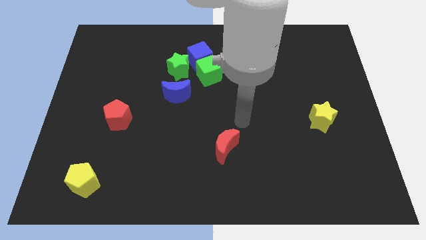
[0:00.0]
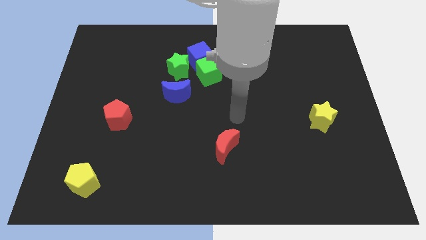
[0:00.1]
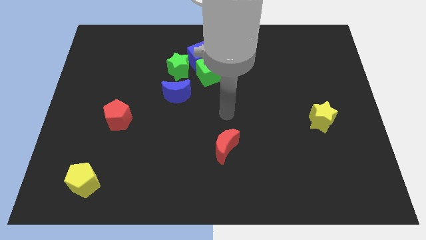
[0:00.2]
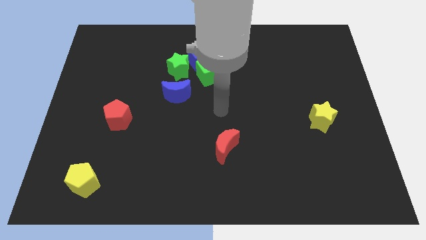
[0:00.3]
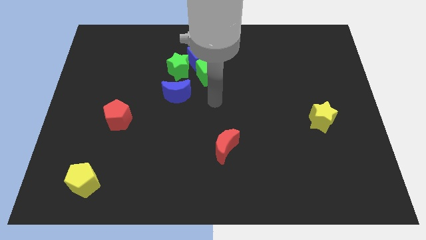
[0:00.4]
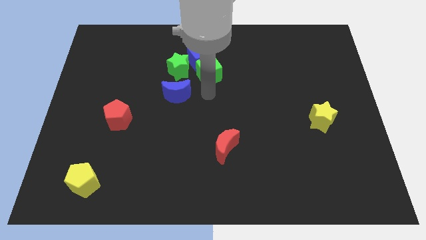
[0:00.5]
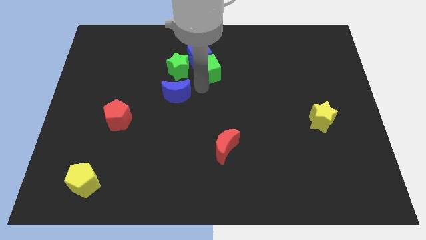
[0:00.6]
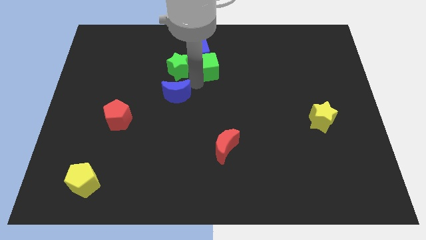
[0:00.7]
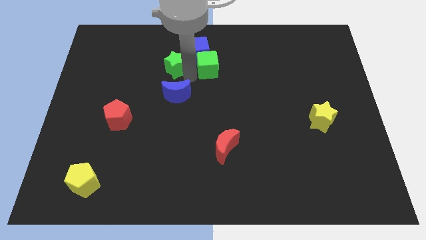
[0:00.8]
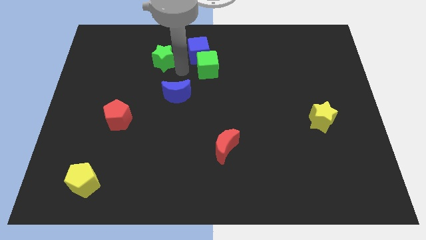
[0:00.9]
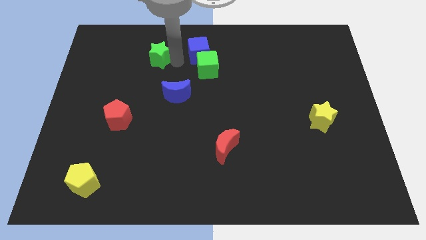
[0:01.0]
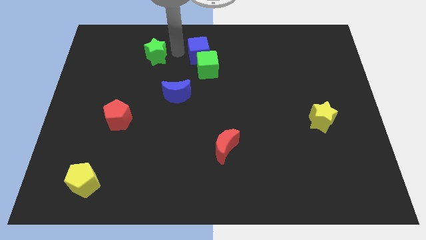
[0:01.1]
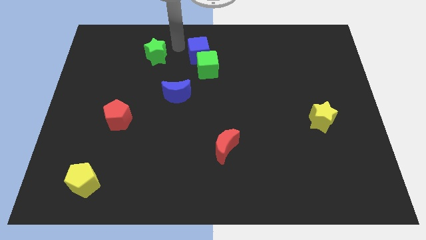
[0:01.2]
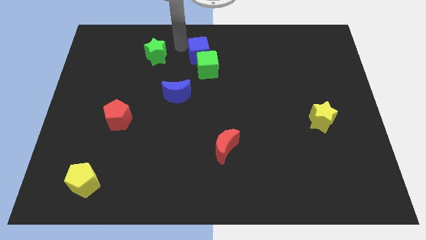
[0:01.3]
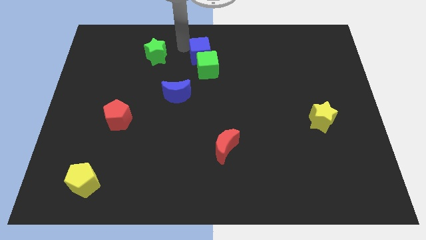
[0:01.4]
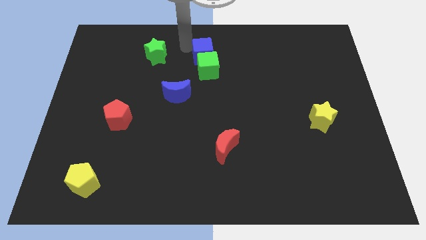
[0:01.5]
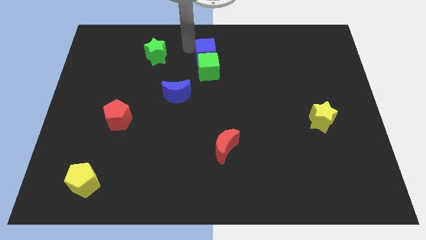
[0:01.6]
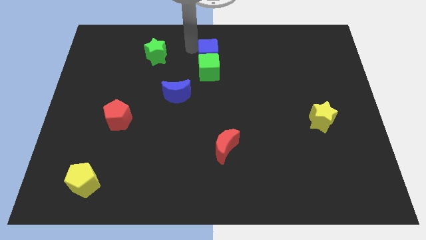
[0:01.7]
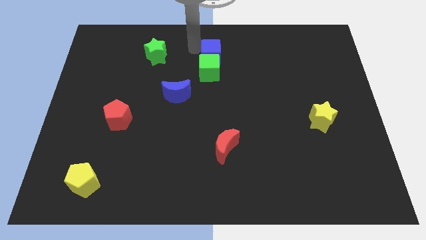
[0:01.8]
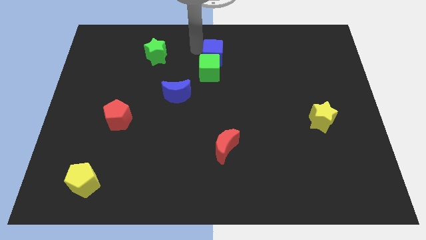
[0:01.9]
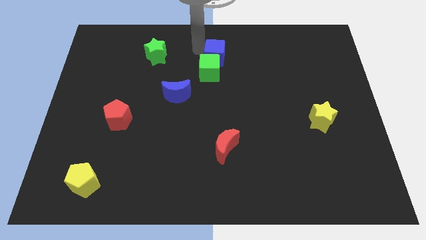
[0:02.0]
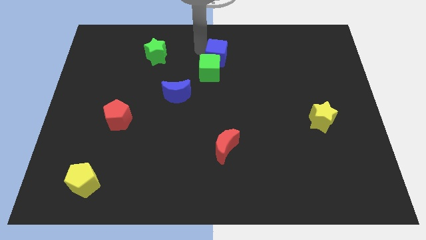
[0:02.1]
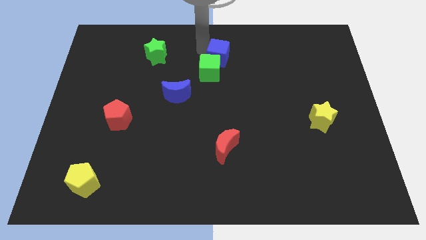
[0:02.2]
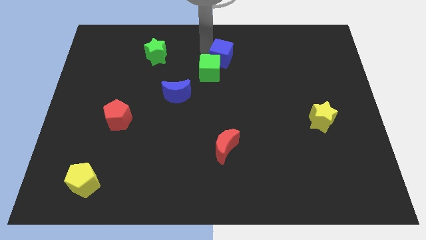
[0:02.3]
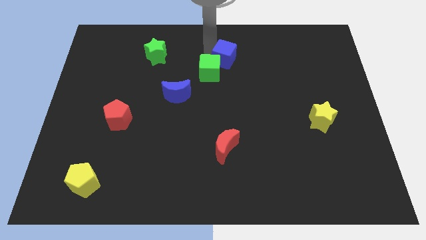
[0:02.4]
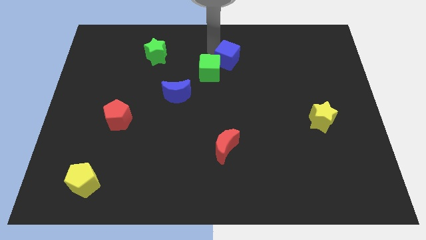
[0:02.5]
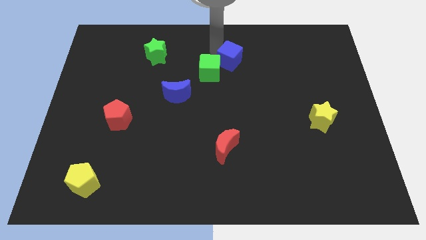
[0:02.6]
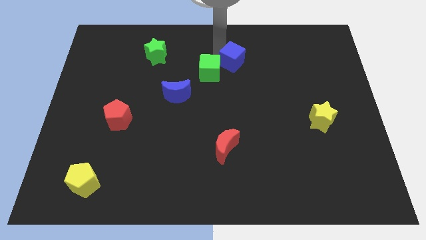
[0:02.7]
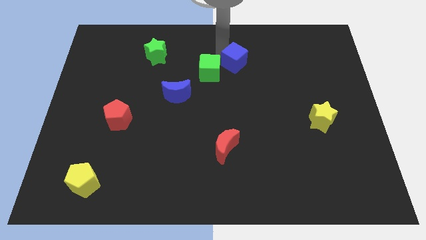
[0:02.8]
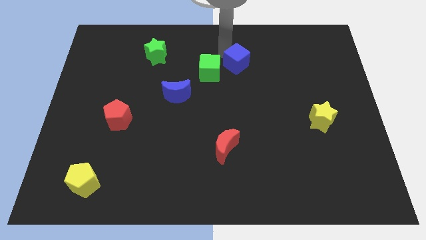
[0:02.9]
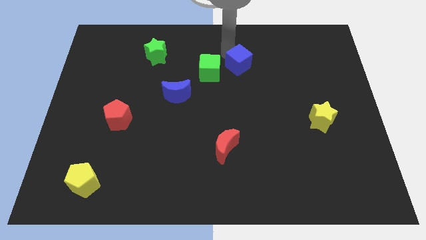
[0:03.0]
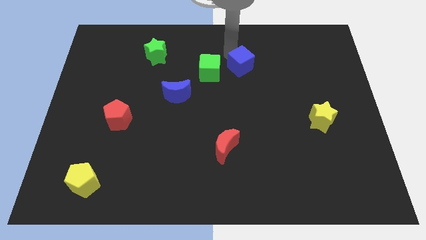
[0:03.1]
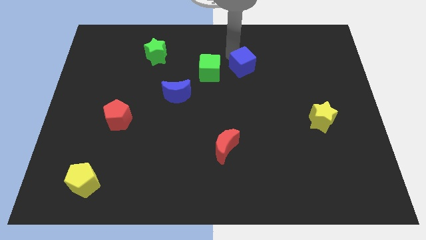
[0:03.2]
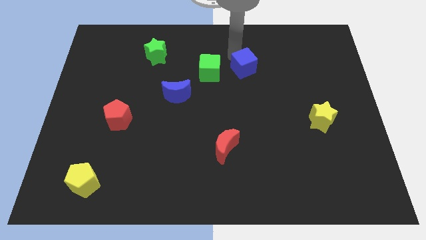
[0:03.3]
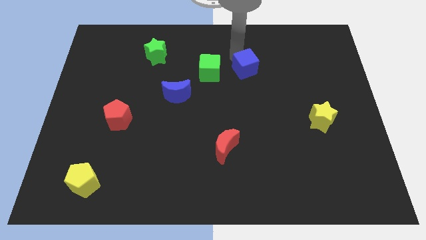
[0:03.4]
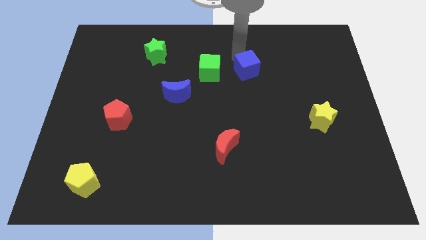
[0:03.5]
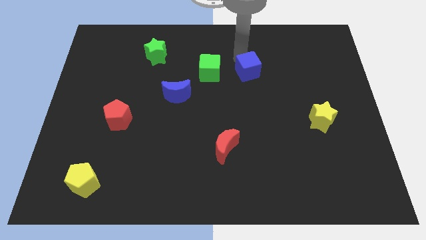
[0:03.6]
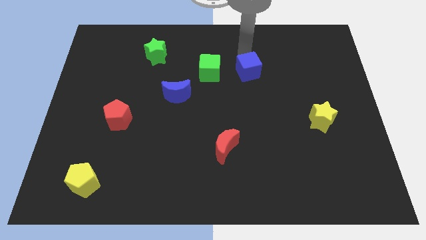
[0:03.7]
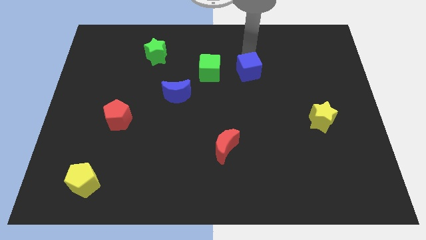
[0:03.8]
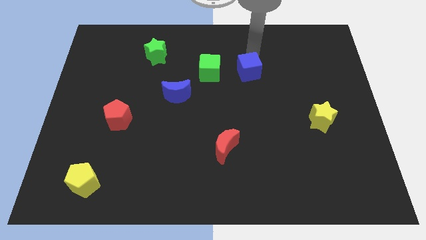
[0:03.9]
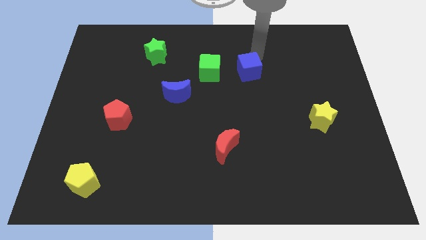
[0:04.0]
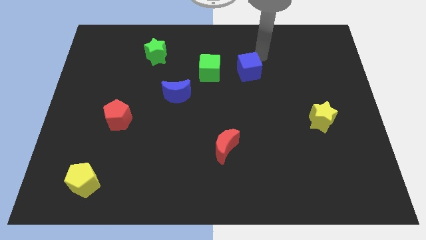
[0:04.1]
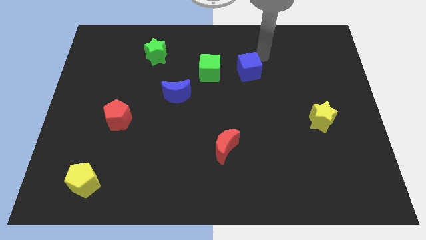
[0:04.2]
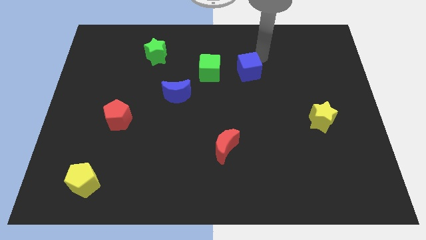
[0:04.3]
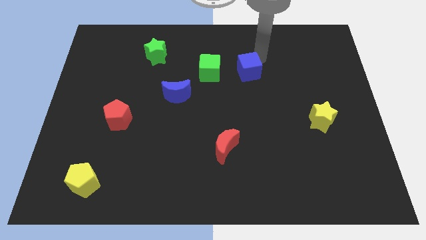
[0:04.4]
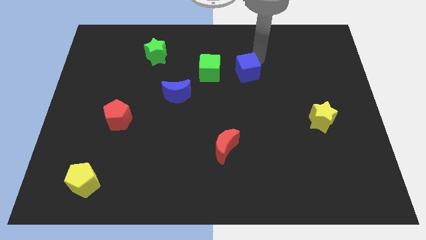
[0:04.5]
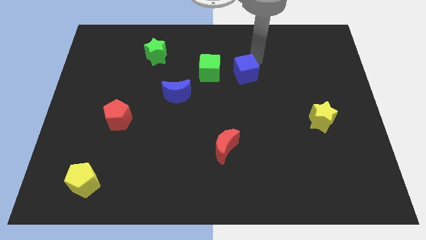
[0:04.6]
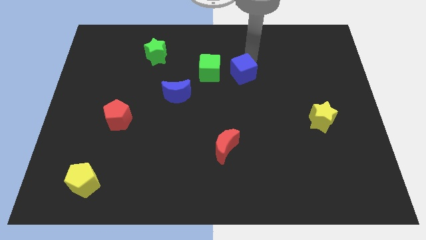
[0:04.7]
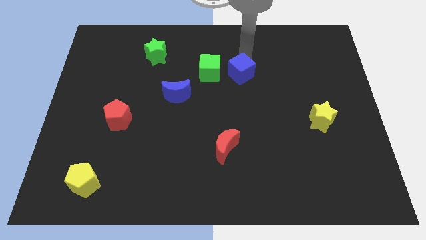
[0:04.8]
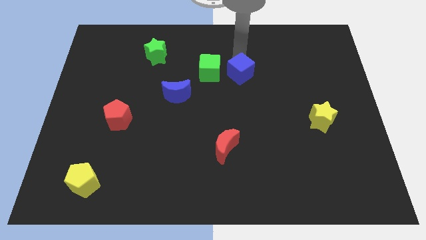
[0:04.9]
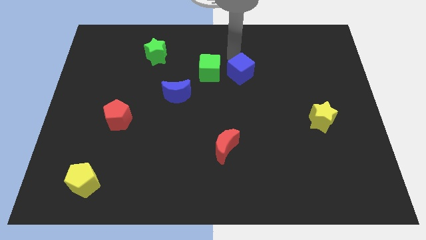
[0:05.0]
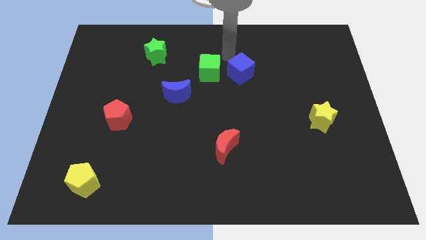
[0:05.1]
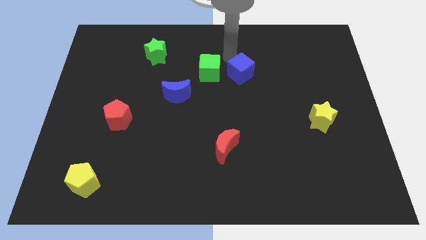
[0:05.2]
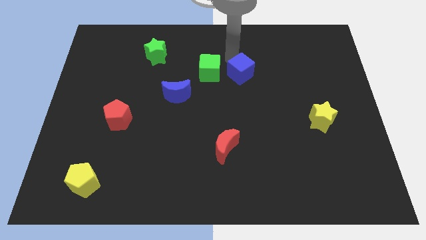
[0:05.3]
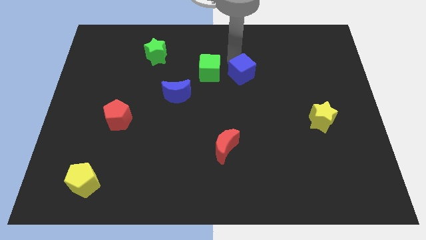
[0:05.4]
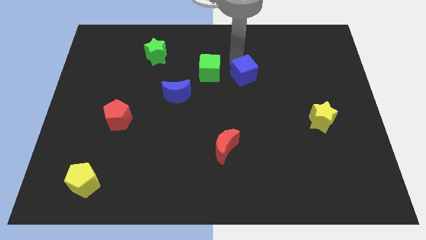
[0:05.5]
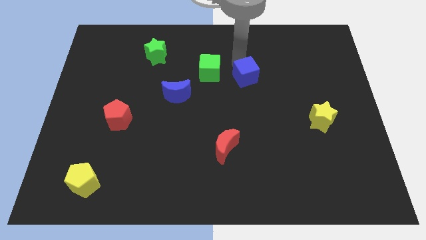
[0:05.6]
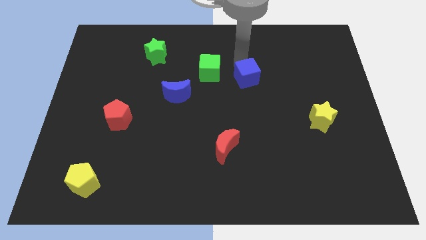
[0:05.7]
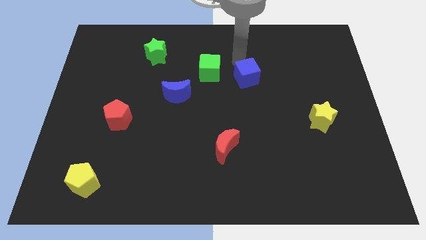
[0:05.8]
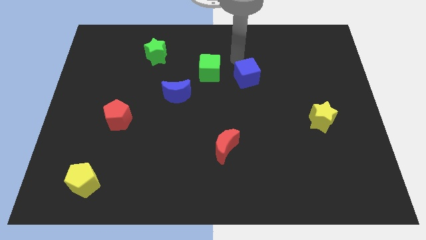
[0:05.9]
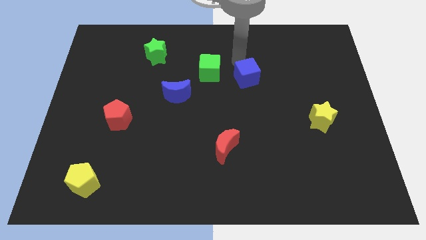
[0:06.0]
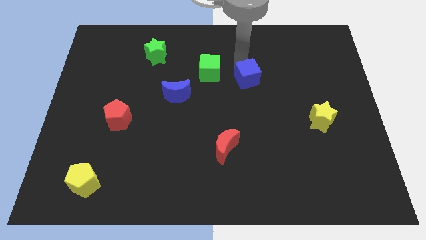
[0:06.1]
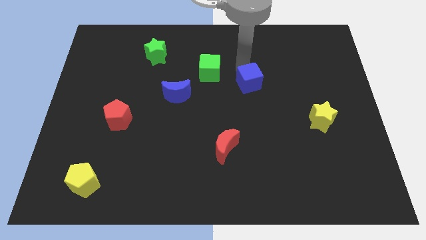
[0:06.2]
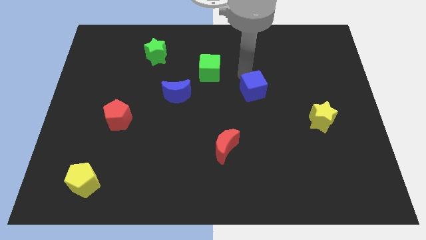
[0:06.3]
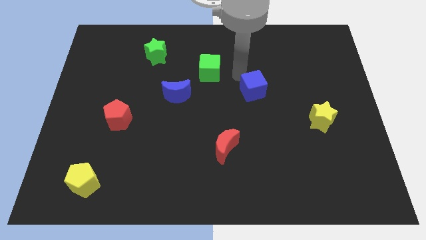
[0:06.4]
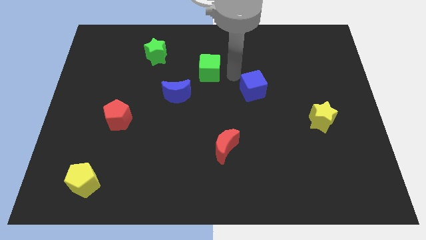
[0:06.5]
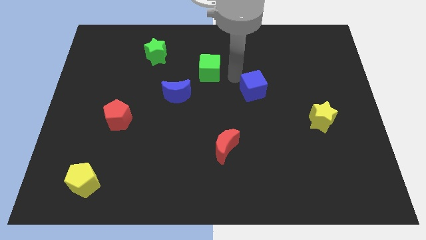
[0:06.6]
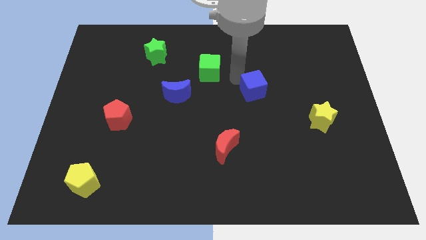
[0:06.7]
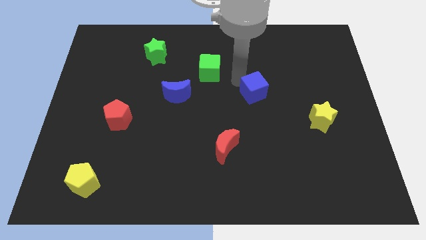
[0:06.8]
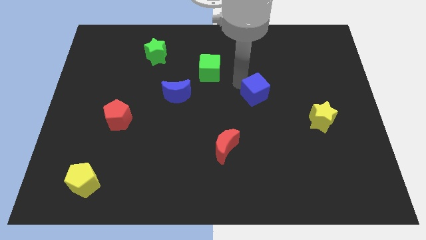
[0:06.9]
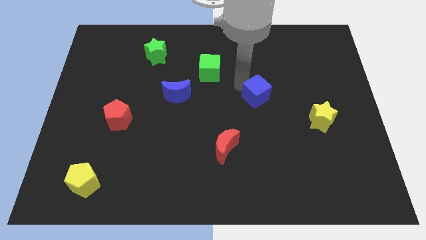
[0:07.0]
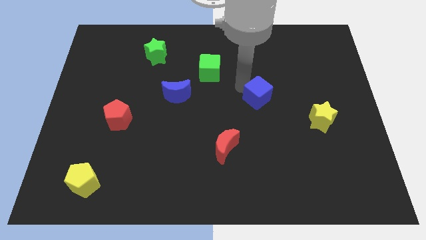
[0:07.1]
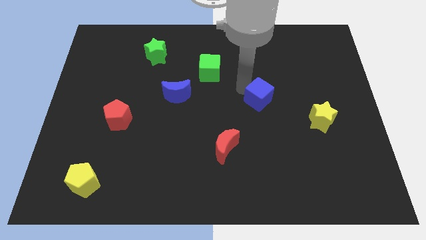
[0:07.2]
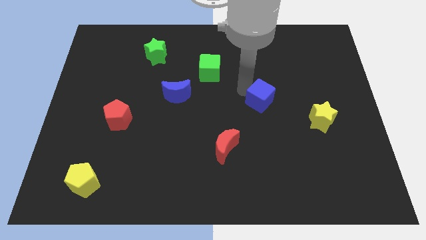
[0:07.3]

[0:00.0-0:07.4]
slide the blue cube diagonally downwards and to the right

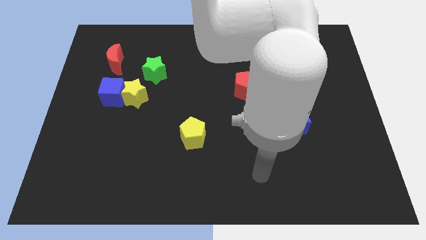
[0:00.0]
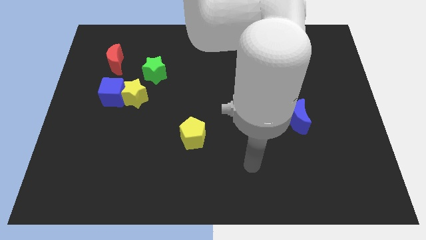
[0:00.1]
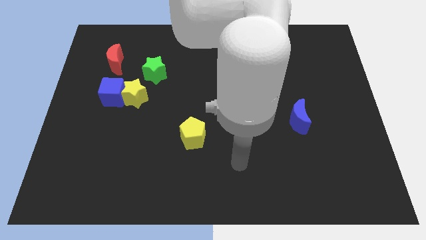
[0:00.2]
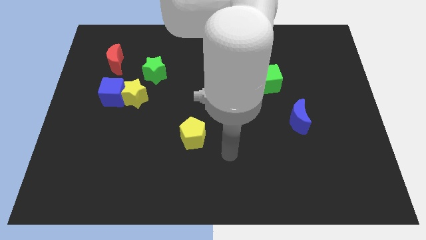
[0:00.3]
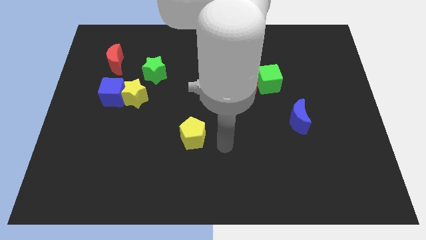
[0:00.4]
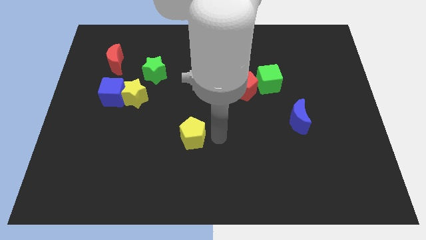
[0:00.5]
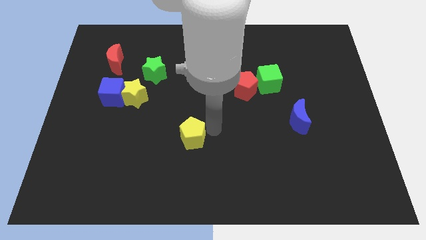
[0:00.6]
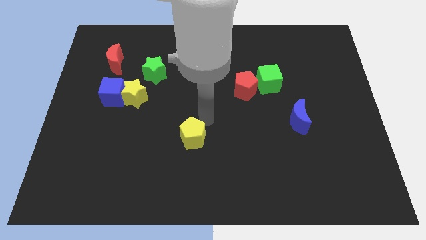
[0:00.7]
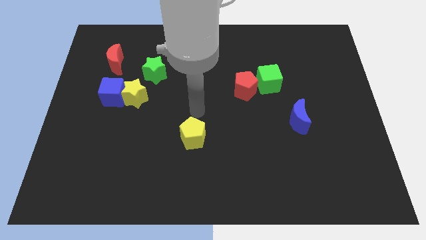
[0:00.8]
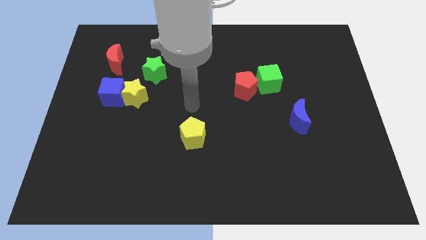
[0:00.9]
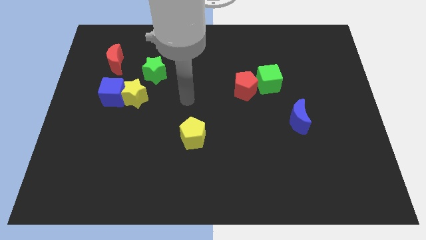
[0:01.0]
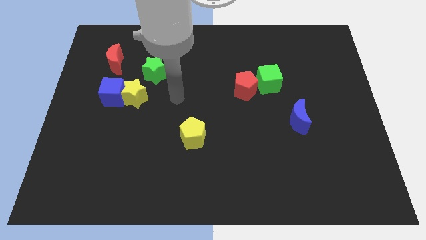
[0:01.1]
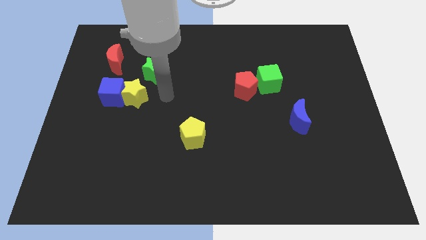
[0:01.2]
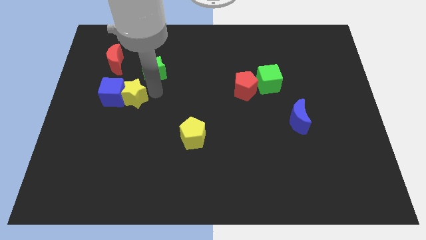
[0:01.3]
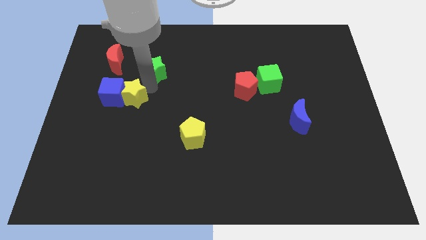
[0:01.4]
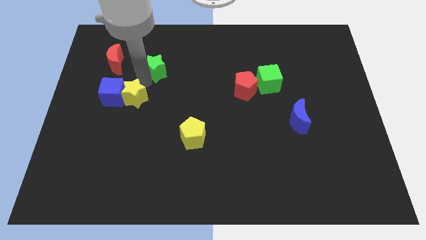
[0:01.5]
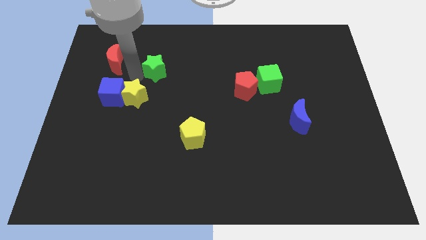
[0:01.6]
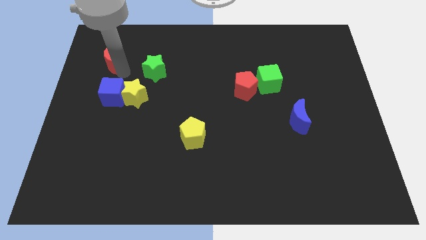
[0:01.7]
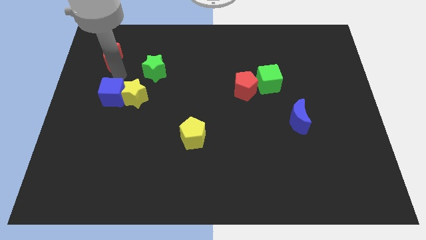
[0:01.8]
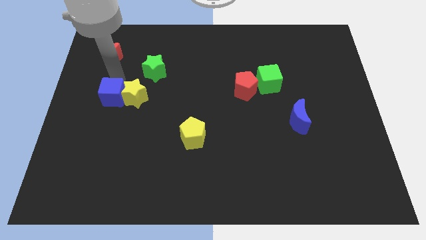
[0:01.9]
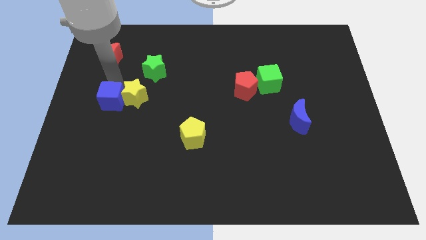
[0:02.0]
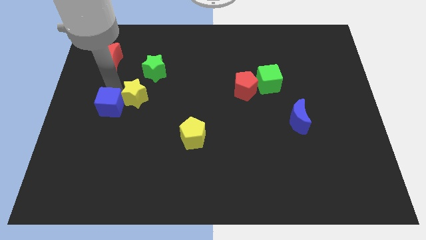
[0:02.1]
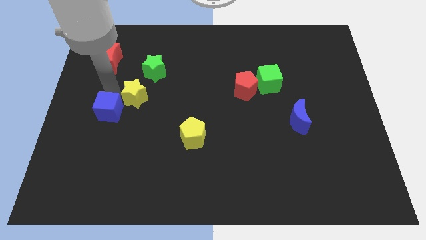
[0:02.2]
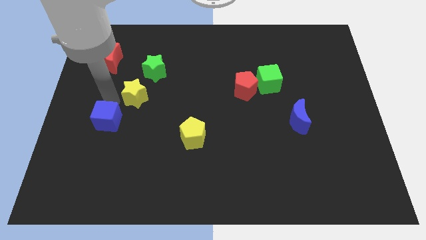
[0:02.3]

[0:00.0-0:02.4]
slide the blue cube a little bit down
